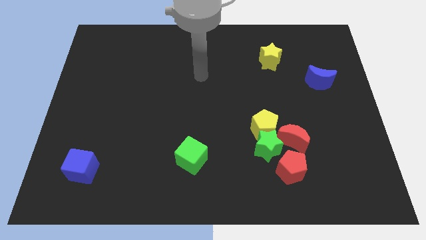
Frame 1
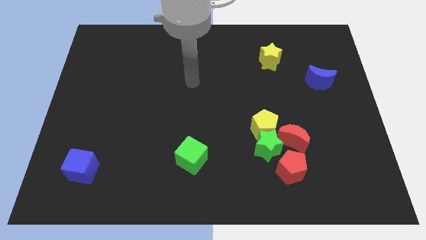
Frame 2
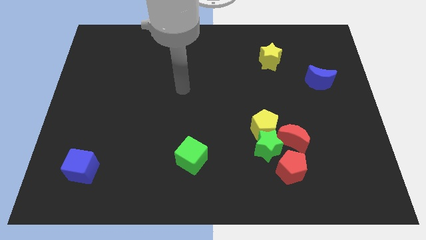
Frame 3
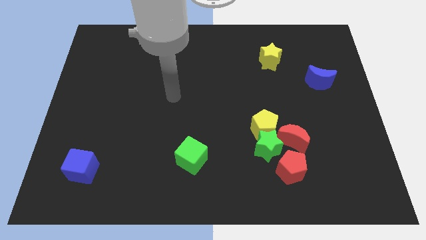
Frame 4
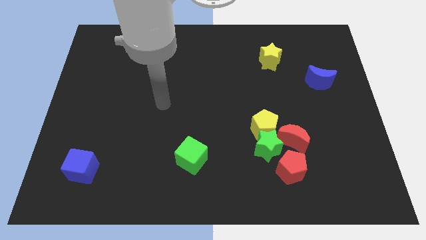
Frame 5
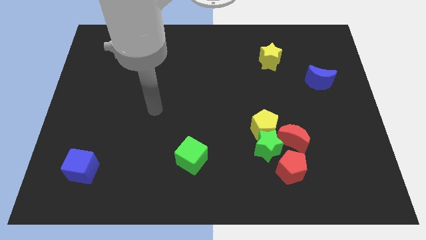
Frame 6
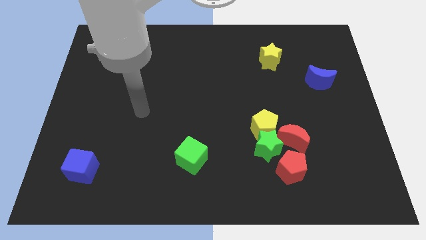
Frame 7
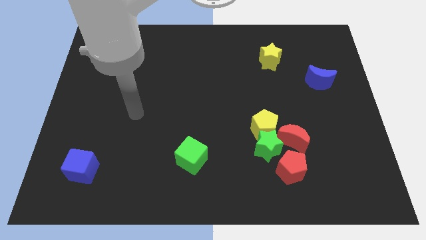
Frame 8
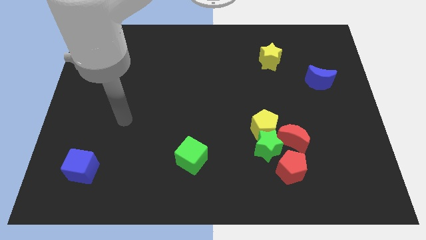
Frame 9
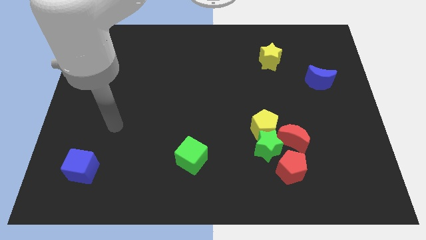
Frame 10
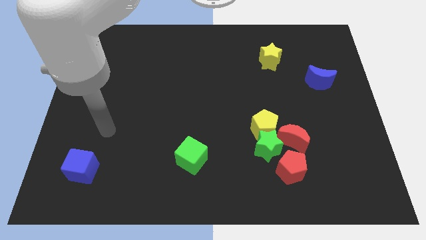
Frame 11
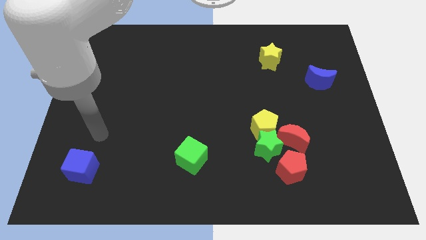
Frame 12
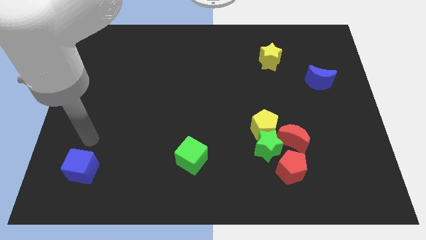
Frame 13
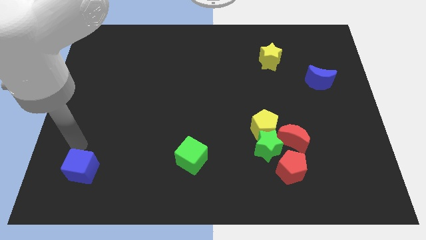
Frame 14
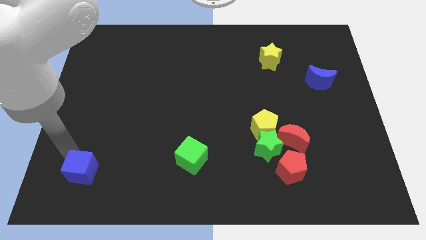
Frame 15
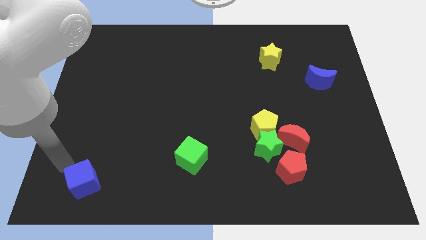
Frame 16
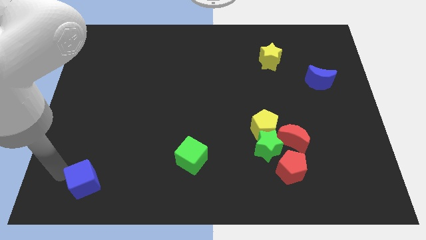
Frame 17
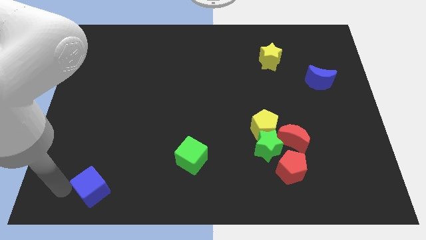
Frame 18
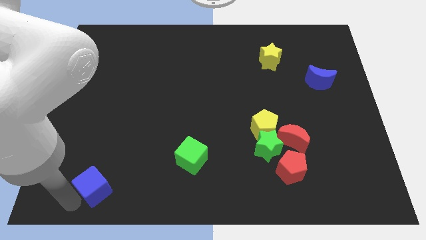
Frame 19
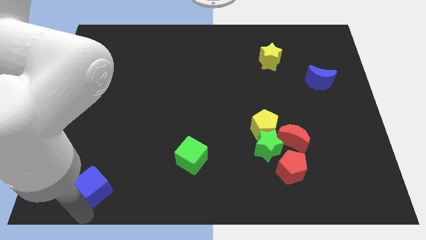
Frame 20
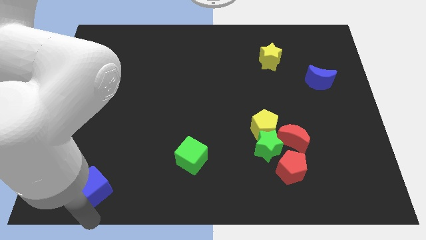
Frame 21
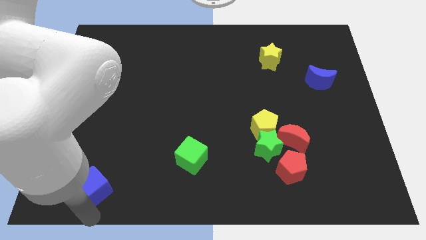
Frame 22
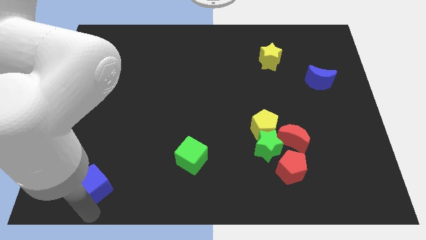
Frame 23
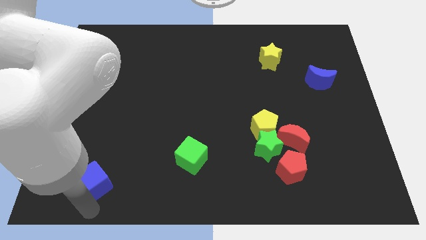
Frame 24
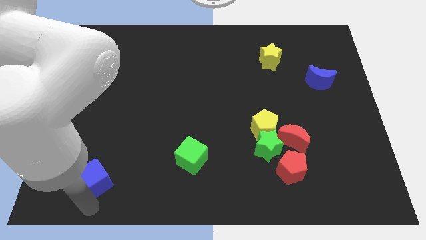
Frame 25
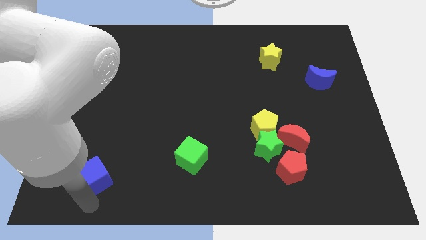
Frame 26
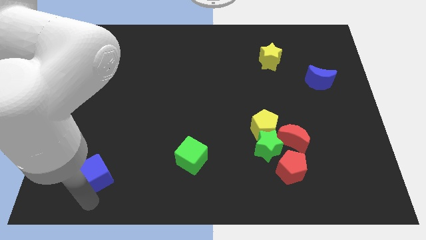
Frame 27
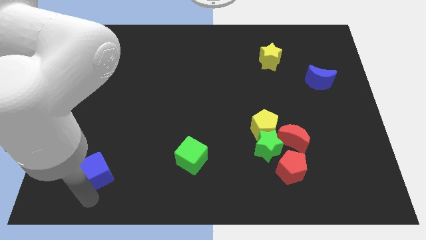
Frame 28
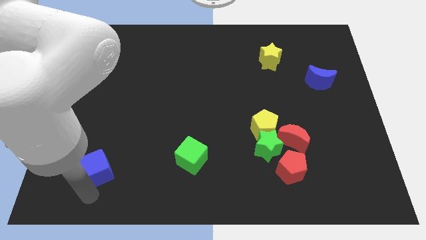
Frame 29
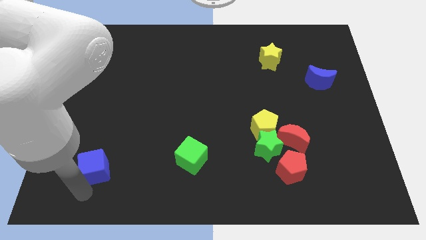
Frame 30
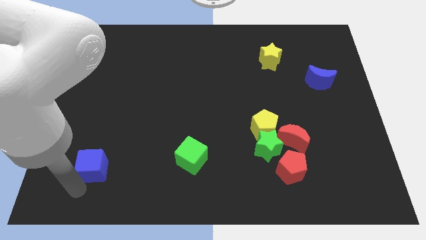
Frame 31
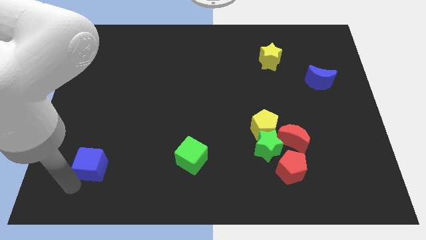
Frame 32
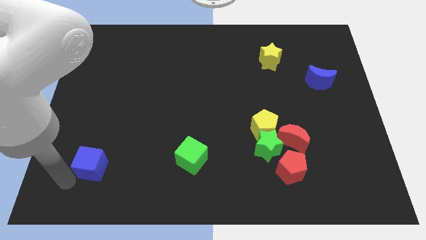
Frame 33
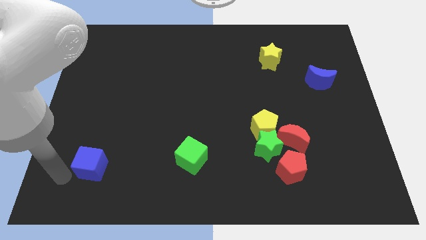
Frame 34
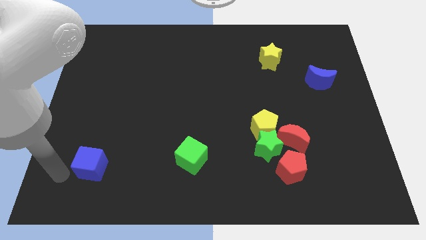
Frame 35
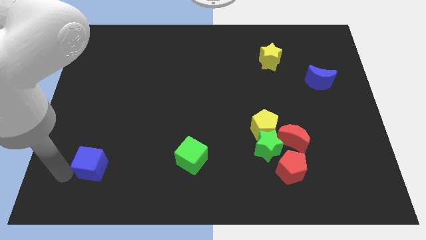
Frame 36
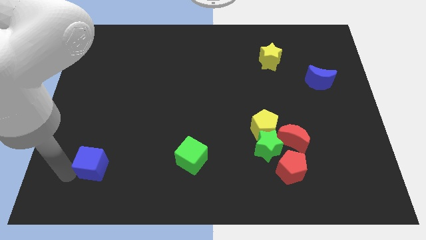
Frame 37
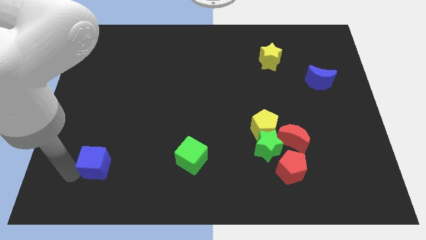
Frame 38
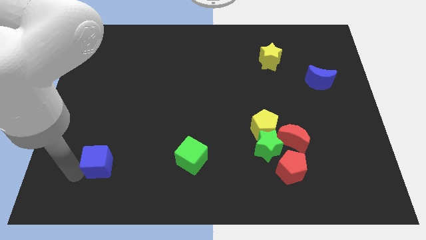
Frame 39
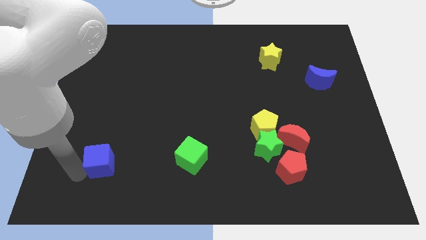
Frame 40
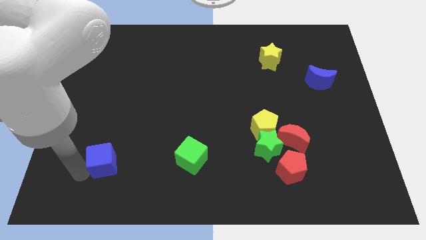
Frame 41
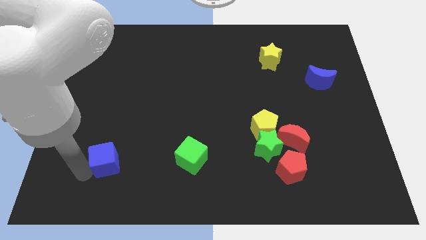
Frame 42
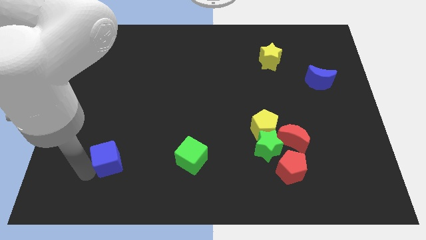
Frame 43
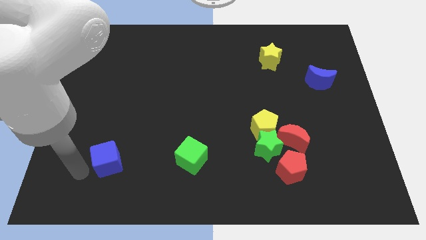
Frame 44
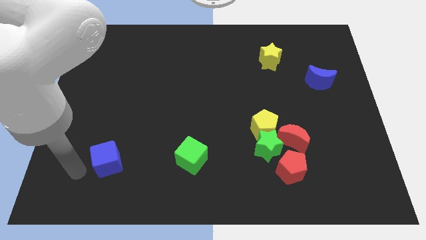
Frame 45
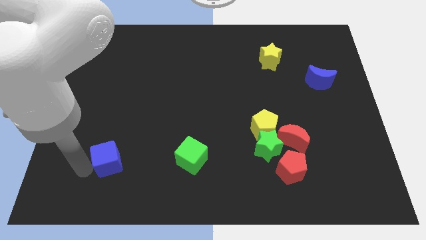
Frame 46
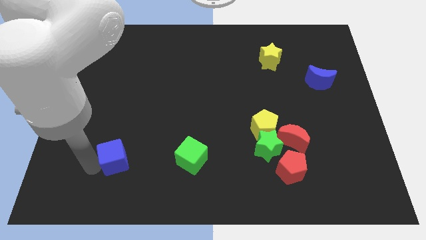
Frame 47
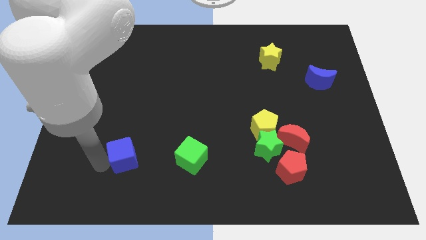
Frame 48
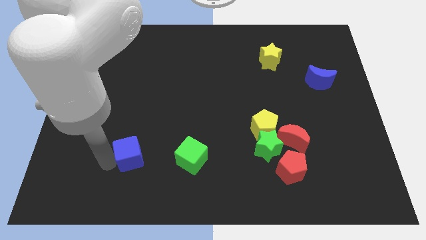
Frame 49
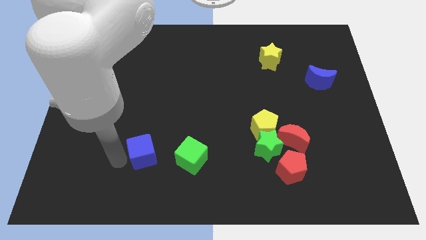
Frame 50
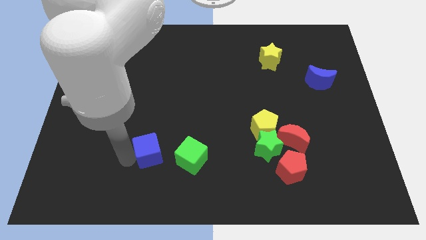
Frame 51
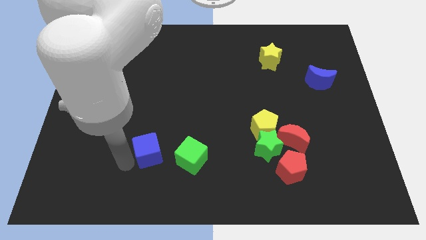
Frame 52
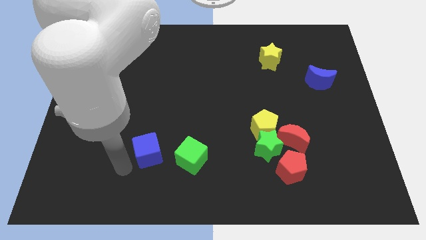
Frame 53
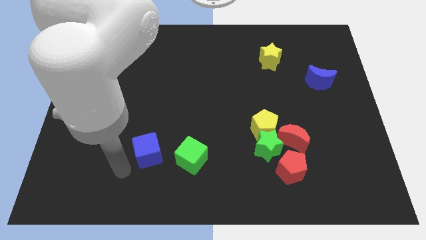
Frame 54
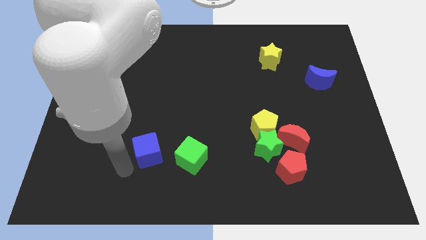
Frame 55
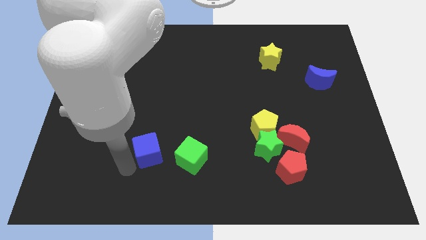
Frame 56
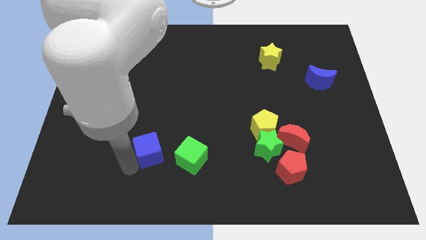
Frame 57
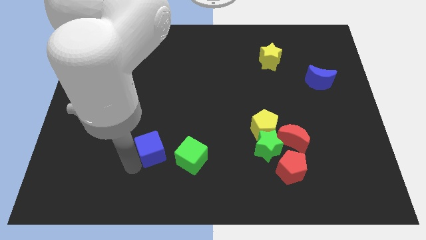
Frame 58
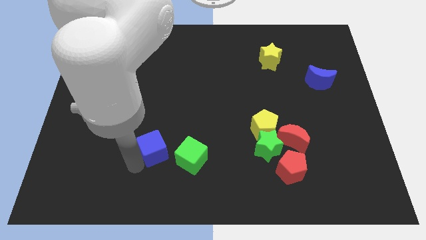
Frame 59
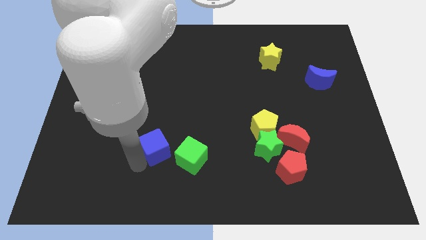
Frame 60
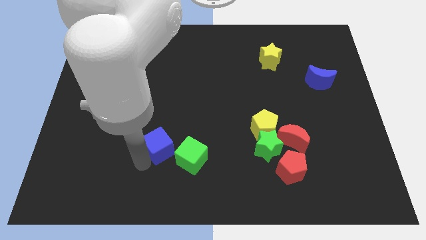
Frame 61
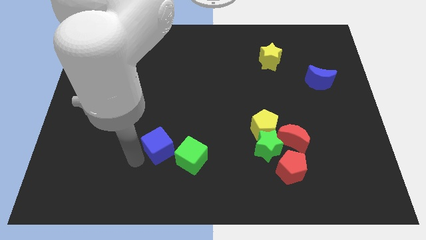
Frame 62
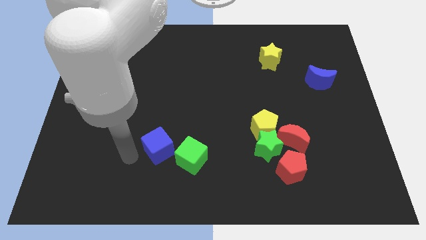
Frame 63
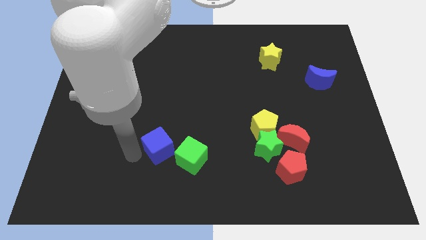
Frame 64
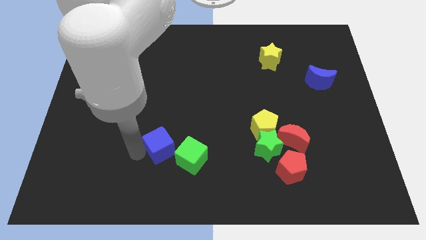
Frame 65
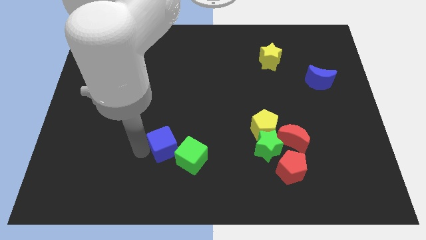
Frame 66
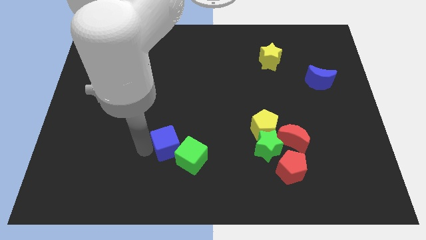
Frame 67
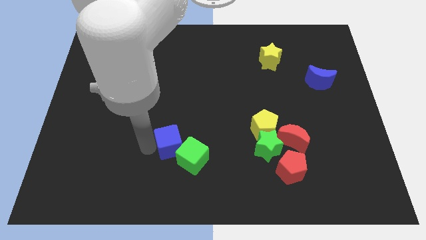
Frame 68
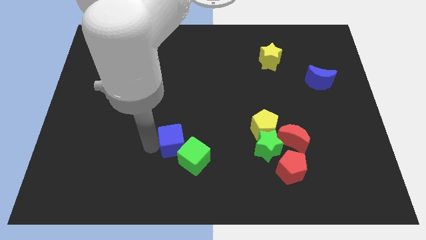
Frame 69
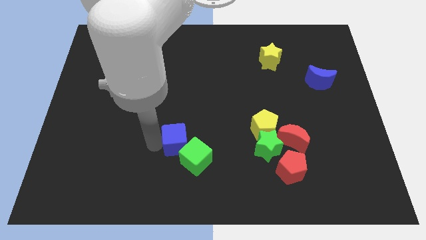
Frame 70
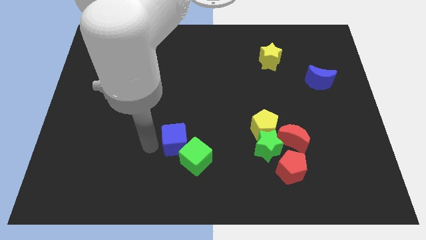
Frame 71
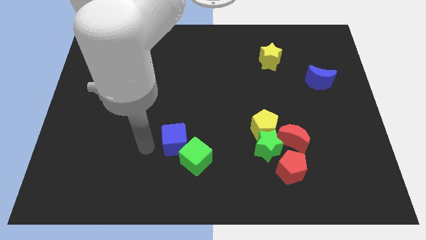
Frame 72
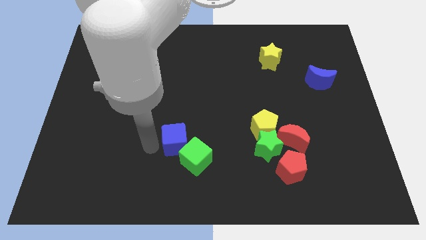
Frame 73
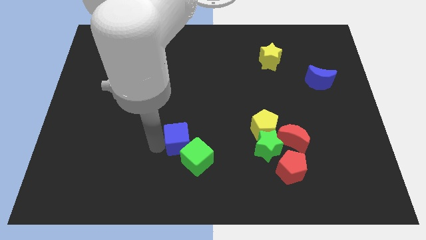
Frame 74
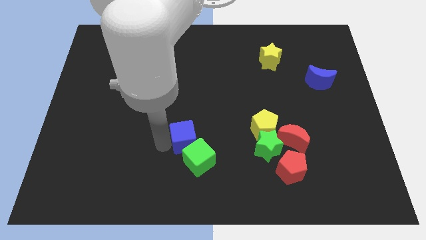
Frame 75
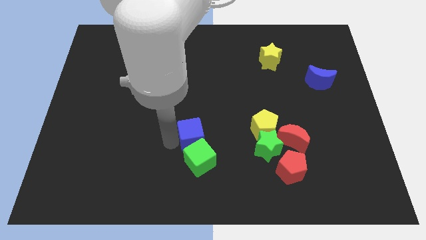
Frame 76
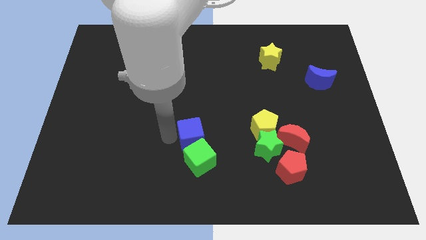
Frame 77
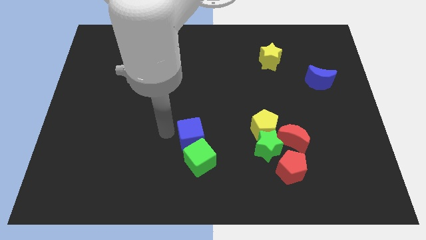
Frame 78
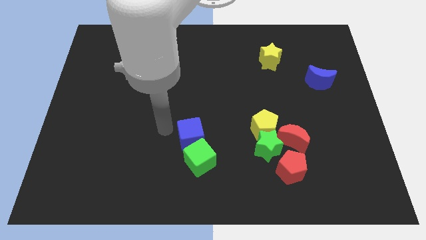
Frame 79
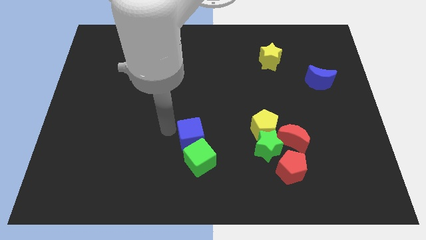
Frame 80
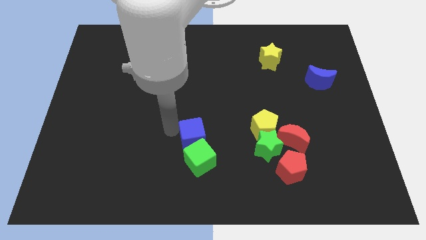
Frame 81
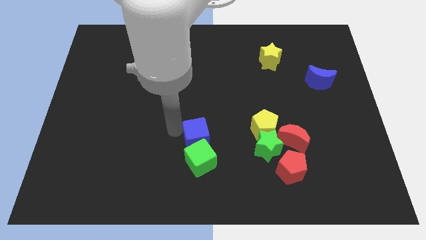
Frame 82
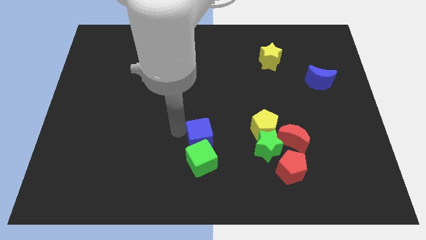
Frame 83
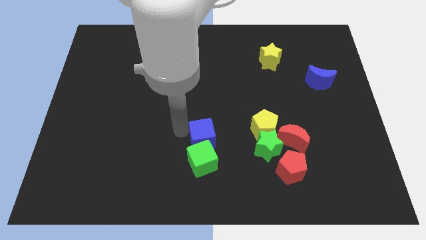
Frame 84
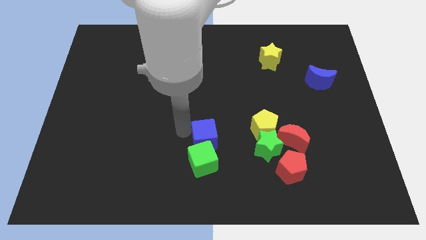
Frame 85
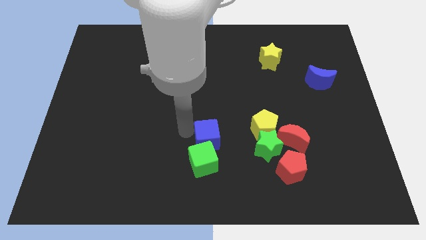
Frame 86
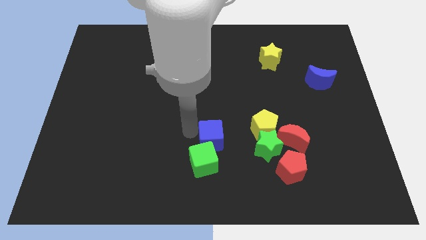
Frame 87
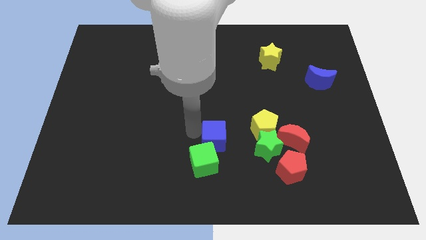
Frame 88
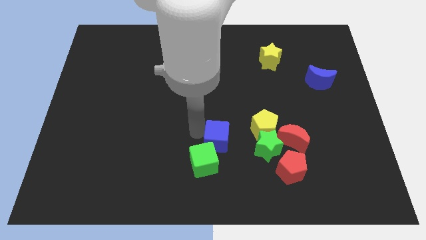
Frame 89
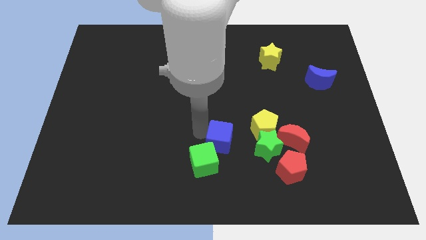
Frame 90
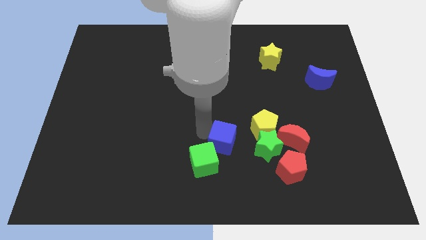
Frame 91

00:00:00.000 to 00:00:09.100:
slide the blue cube to the bottom left of the yellow pentagon
